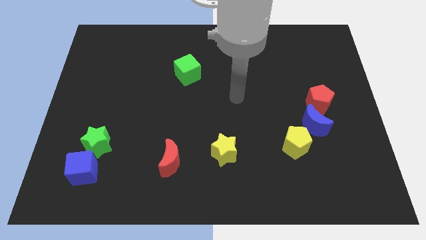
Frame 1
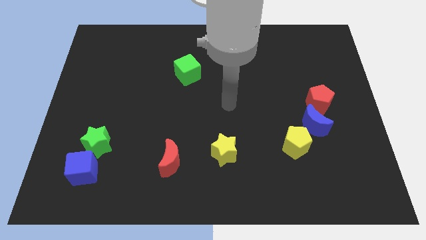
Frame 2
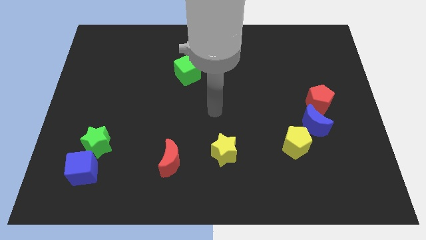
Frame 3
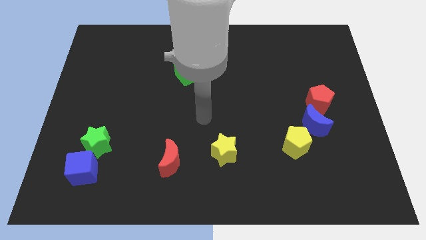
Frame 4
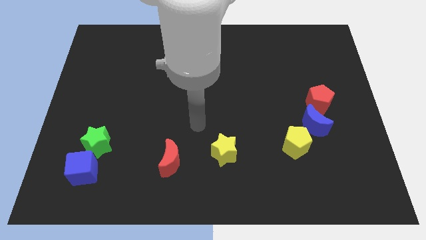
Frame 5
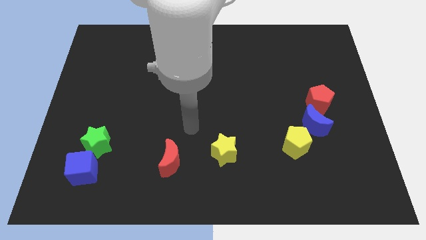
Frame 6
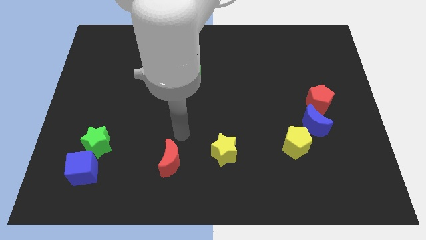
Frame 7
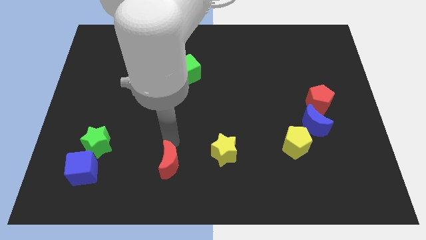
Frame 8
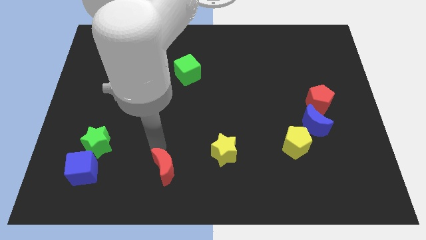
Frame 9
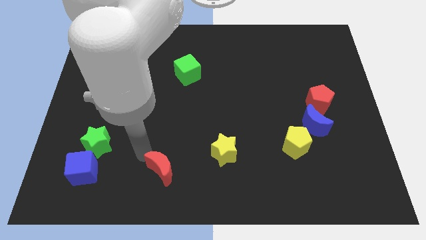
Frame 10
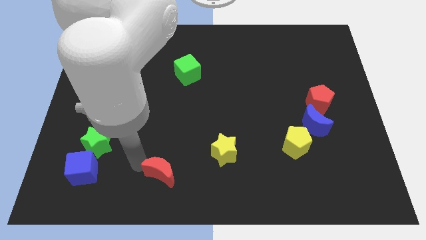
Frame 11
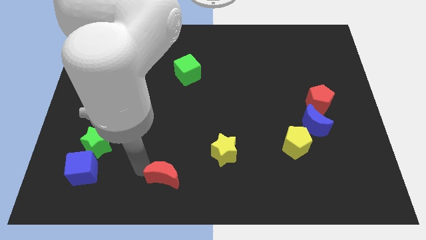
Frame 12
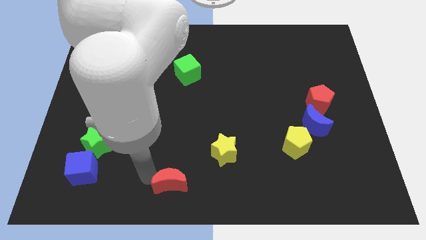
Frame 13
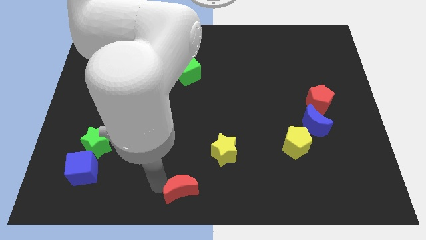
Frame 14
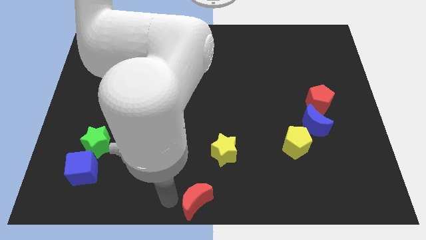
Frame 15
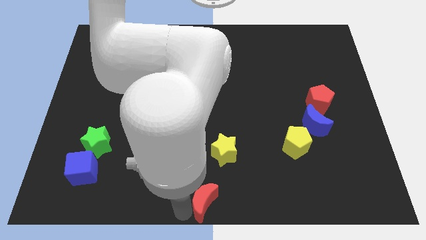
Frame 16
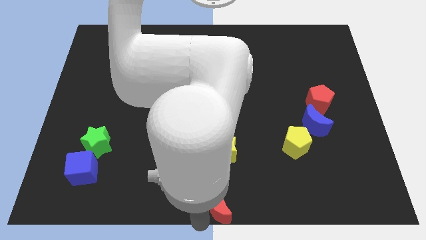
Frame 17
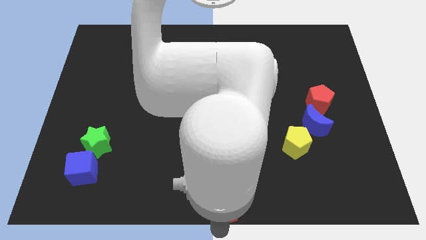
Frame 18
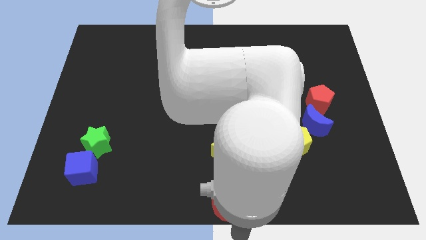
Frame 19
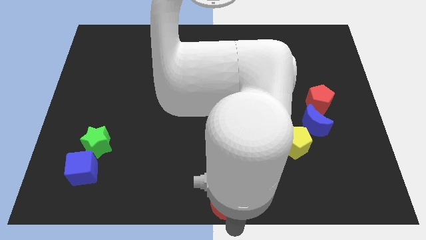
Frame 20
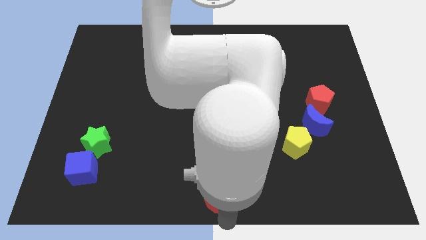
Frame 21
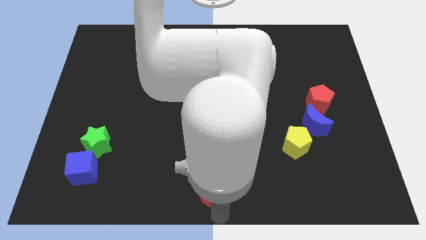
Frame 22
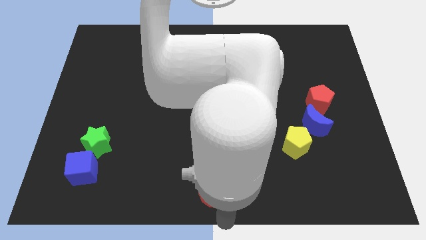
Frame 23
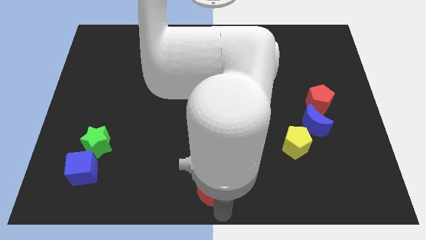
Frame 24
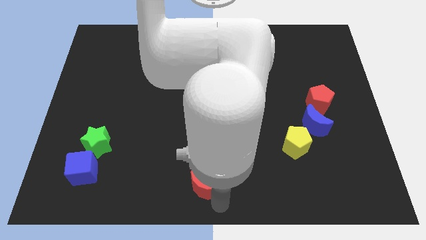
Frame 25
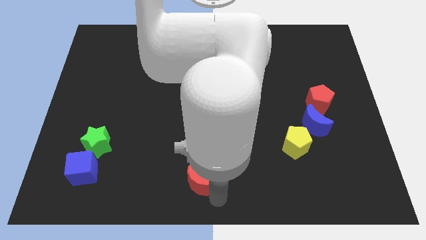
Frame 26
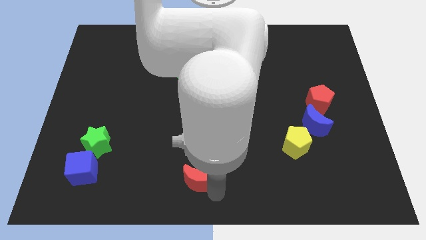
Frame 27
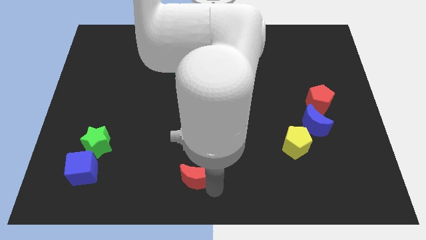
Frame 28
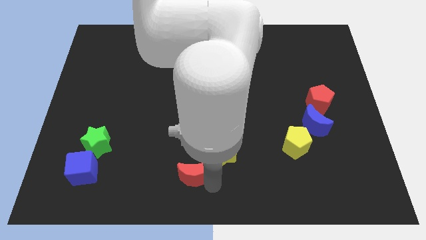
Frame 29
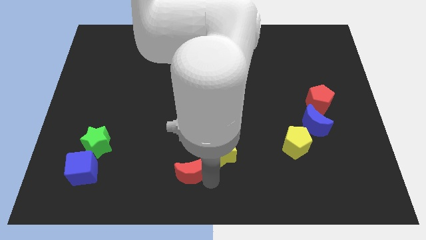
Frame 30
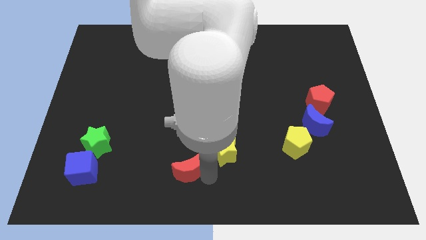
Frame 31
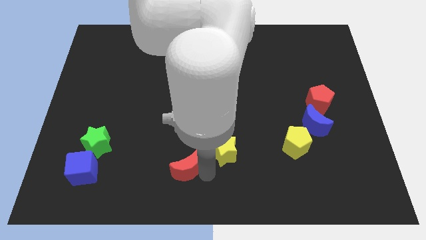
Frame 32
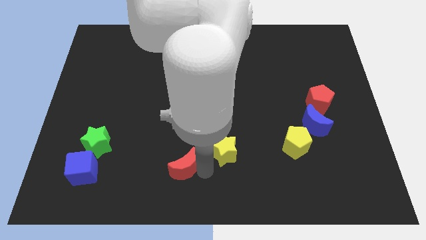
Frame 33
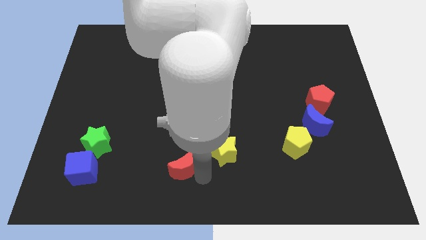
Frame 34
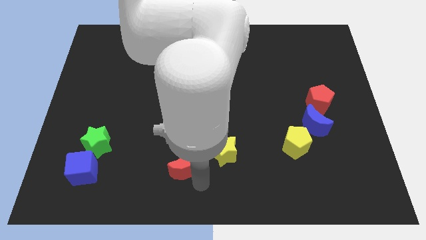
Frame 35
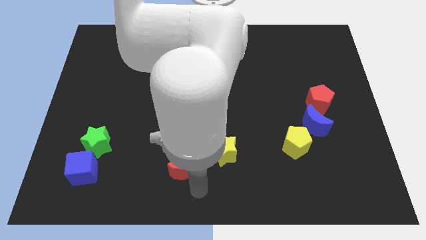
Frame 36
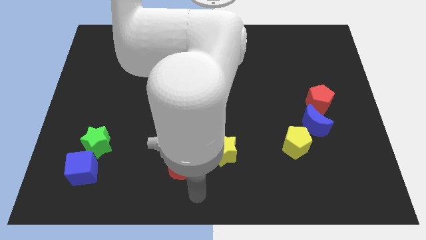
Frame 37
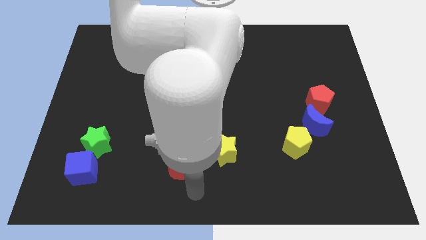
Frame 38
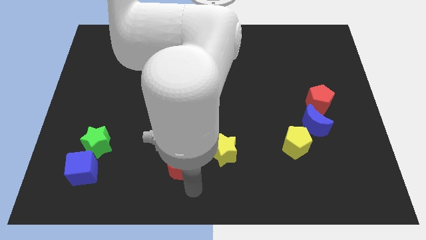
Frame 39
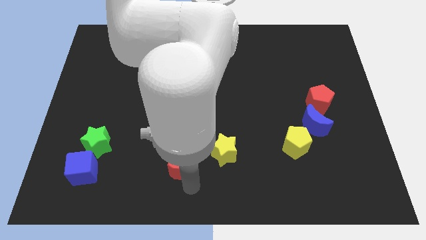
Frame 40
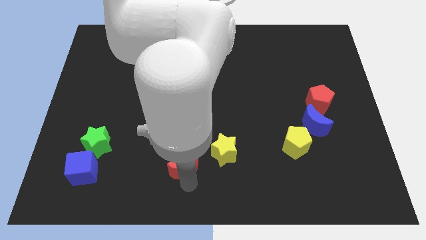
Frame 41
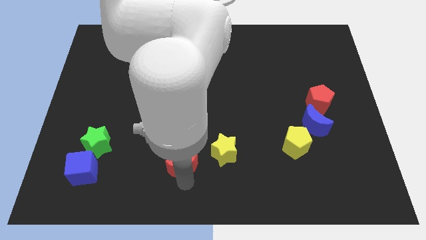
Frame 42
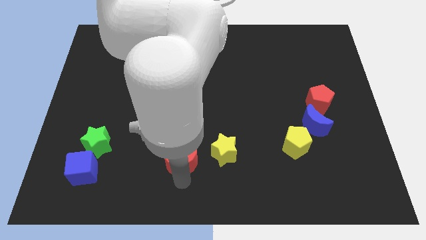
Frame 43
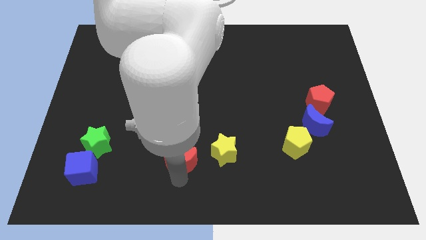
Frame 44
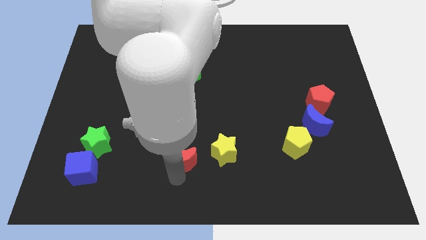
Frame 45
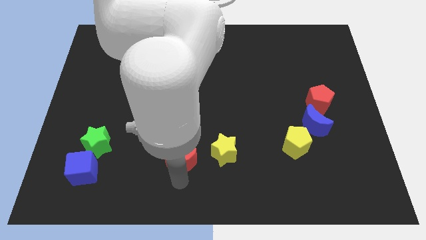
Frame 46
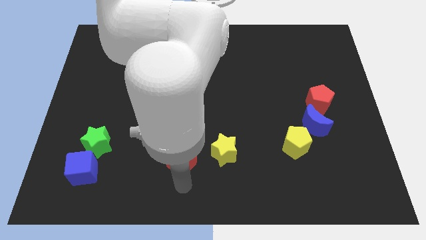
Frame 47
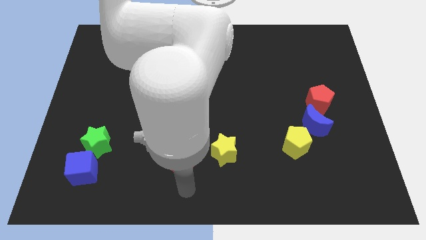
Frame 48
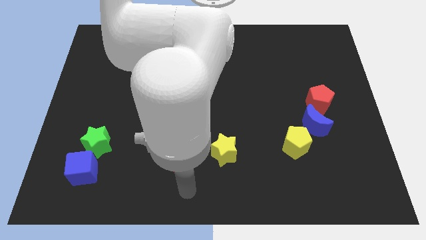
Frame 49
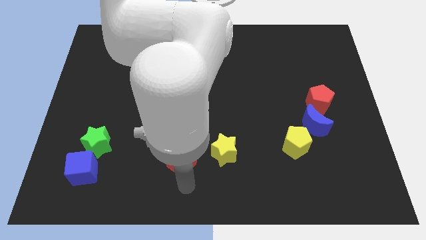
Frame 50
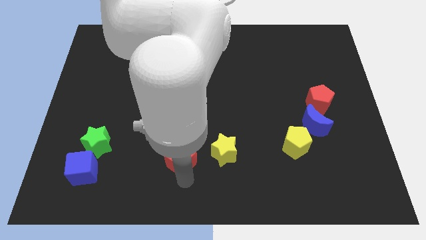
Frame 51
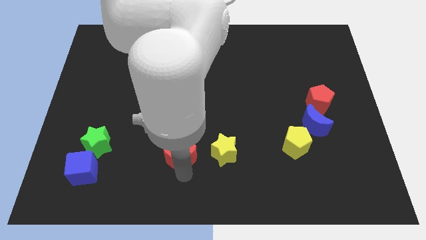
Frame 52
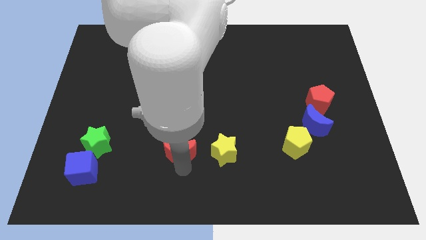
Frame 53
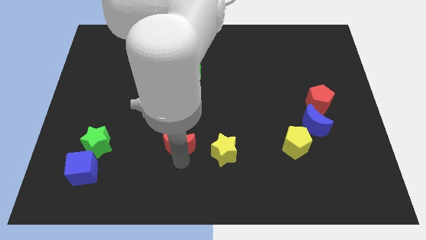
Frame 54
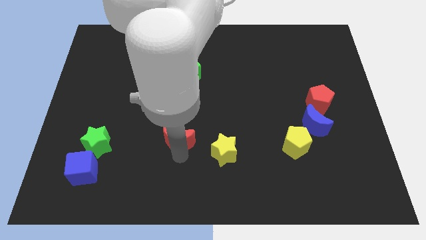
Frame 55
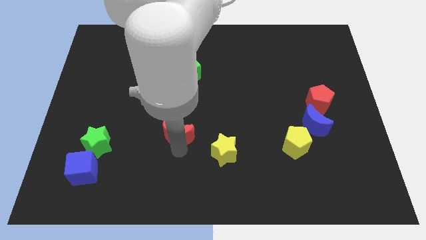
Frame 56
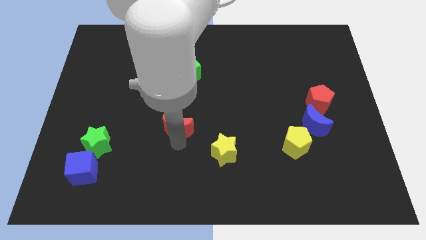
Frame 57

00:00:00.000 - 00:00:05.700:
slightly slide the red moon upwards

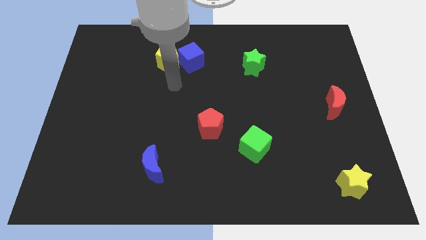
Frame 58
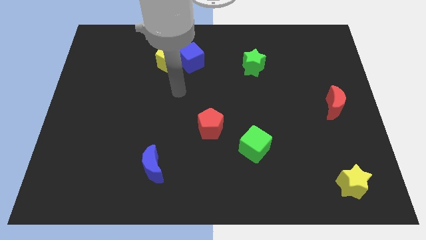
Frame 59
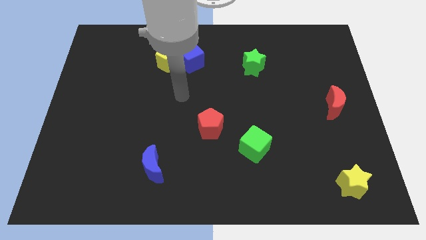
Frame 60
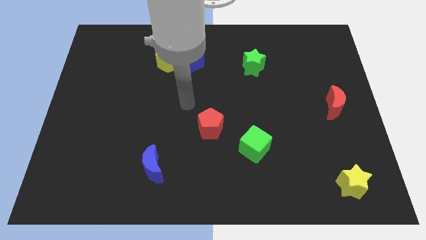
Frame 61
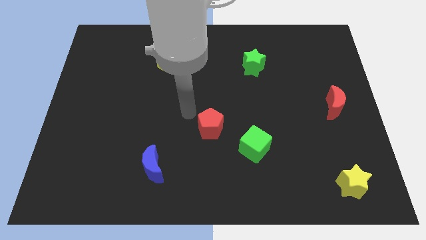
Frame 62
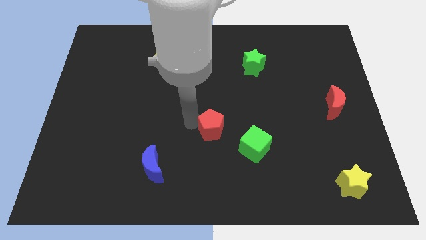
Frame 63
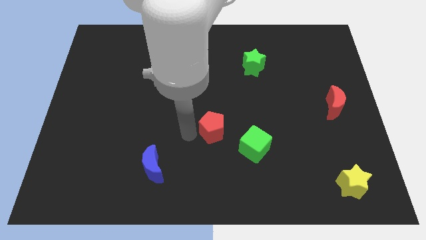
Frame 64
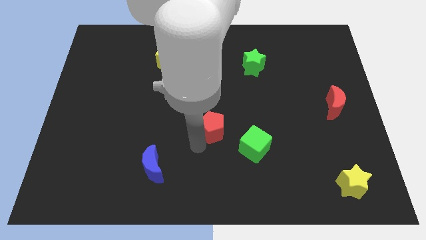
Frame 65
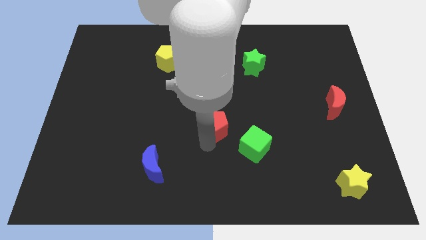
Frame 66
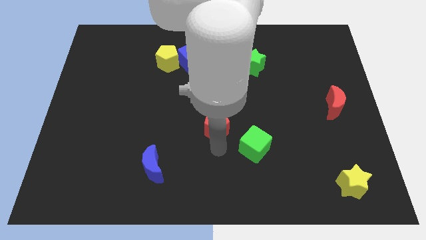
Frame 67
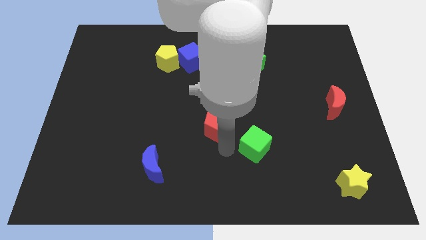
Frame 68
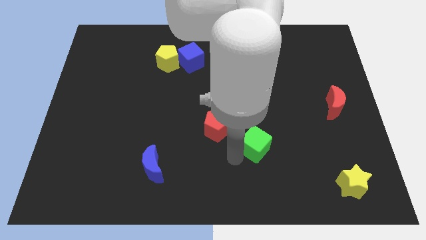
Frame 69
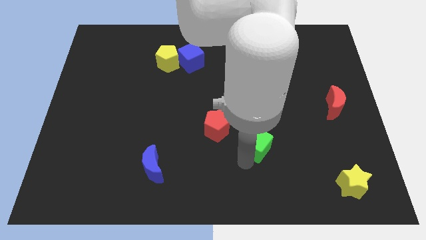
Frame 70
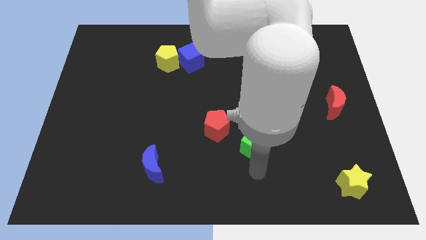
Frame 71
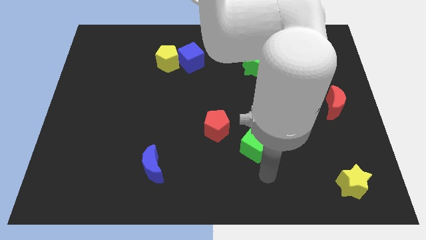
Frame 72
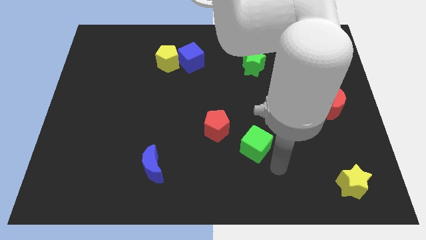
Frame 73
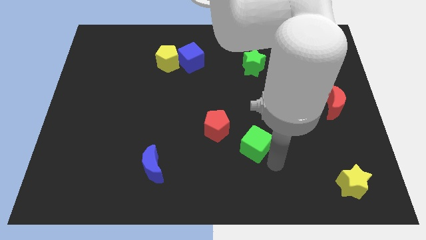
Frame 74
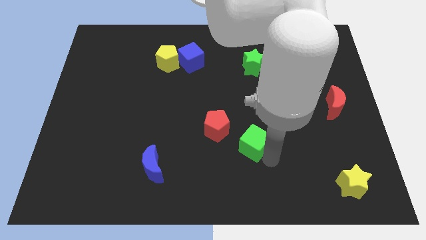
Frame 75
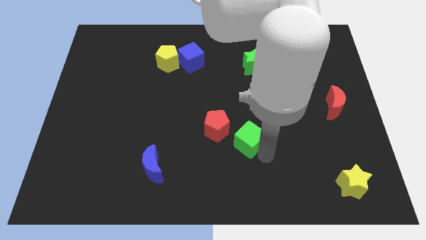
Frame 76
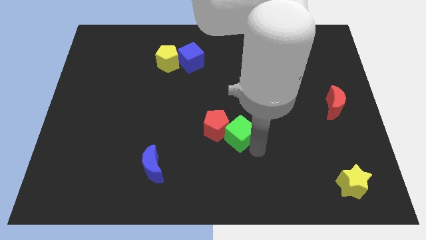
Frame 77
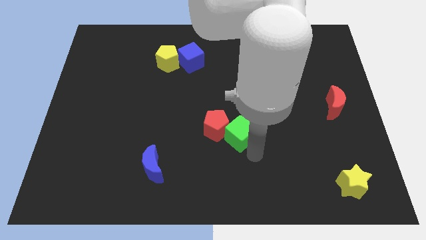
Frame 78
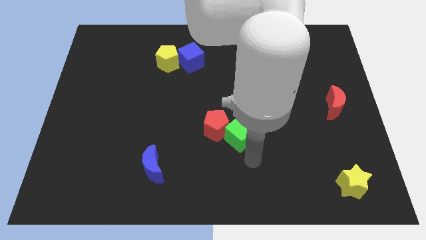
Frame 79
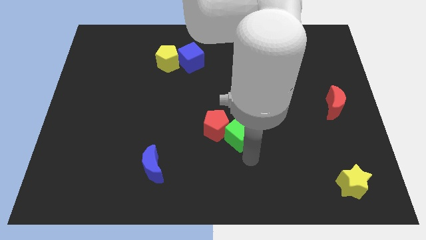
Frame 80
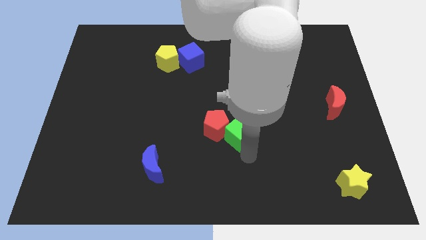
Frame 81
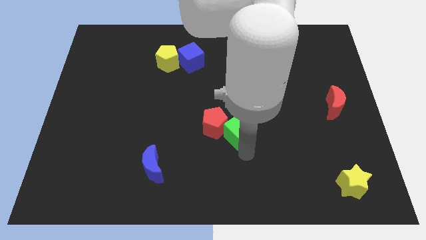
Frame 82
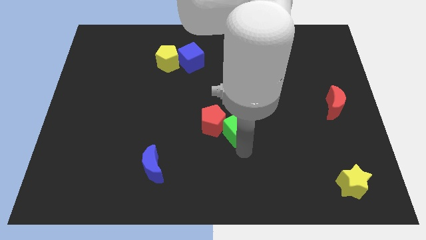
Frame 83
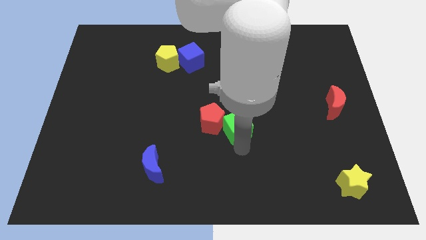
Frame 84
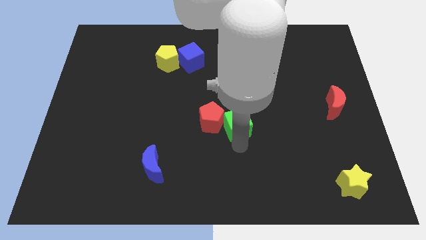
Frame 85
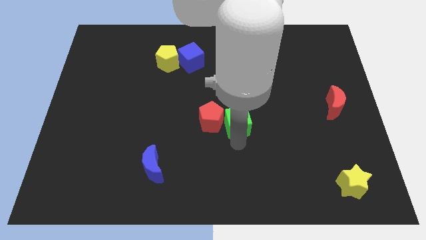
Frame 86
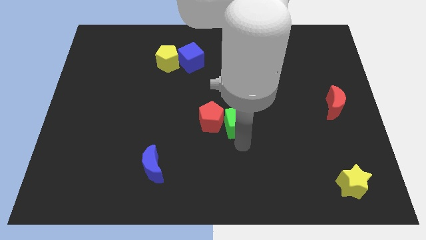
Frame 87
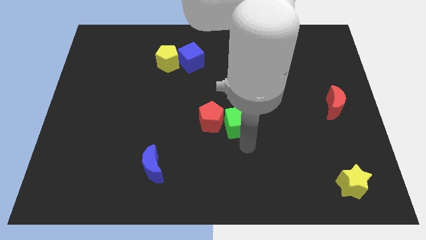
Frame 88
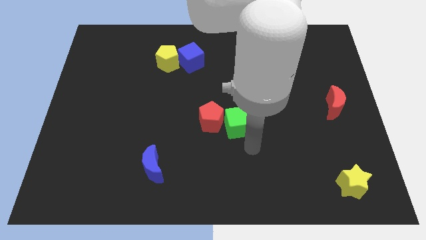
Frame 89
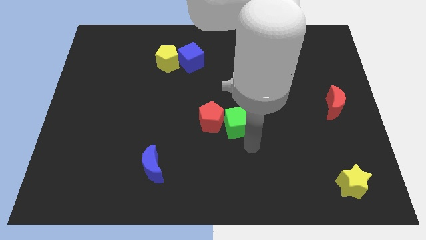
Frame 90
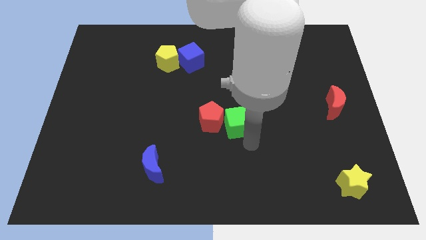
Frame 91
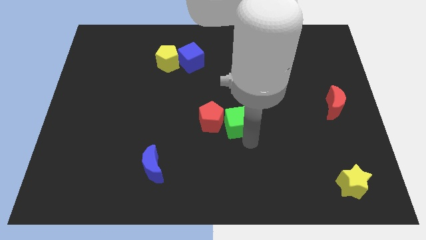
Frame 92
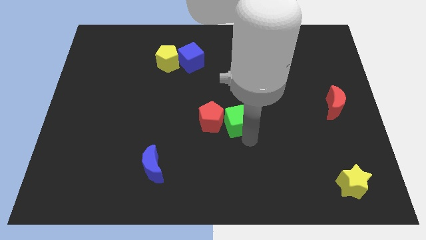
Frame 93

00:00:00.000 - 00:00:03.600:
move the green cube a bit upwards and left diagonally
